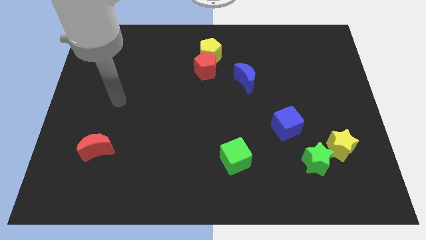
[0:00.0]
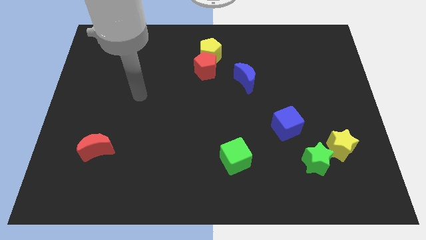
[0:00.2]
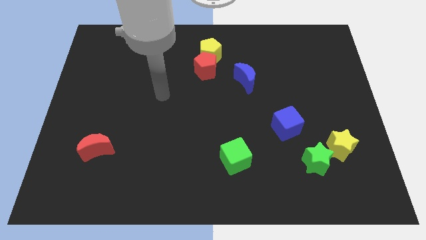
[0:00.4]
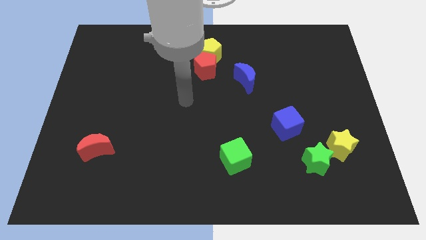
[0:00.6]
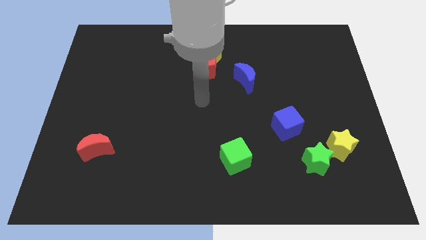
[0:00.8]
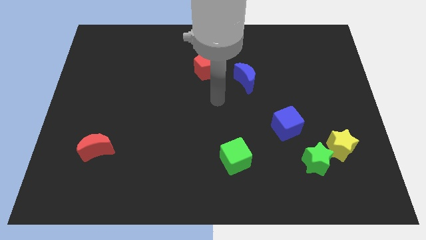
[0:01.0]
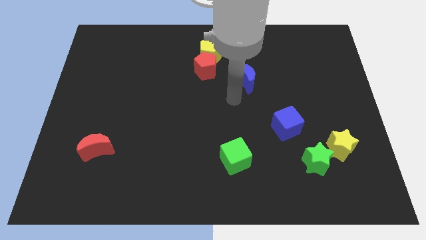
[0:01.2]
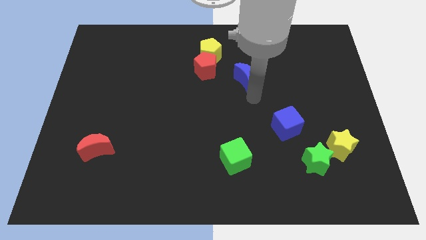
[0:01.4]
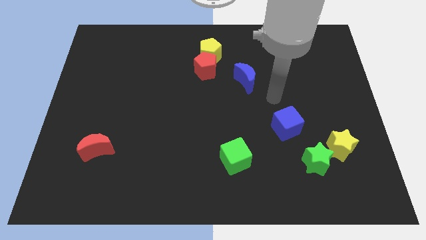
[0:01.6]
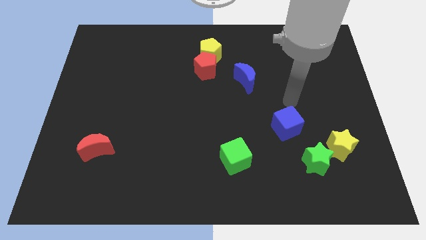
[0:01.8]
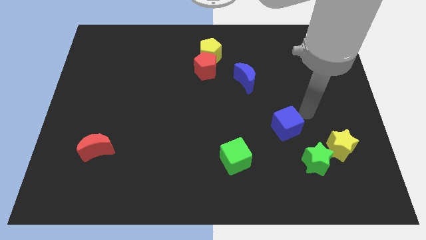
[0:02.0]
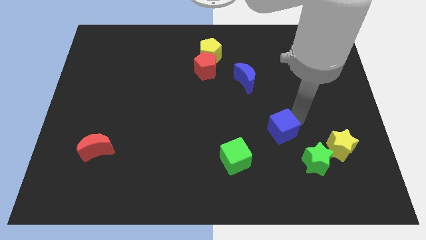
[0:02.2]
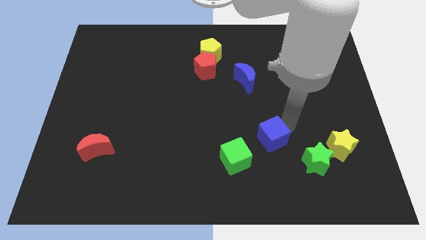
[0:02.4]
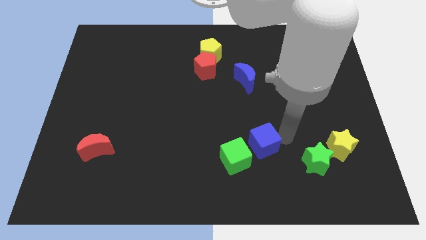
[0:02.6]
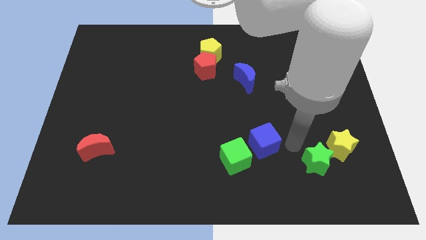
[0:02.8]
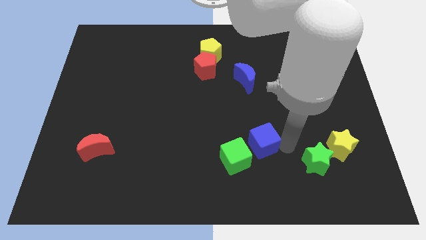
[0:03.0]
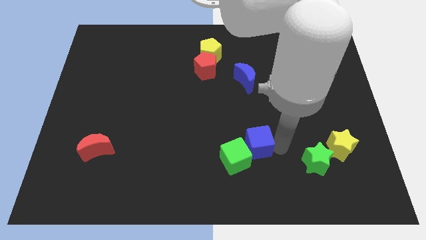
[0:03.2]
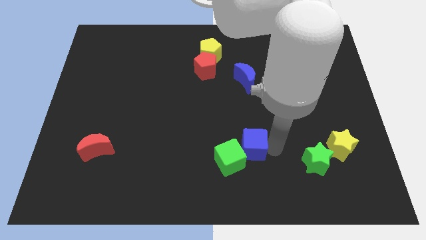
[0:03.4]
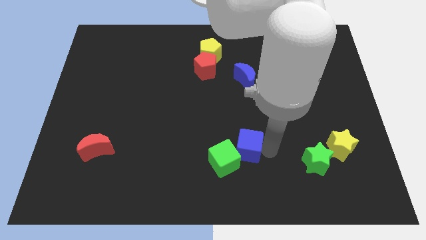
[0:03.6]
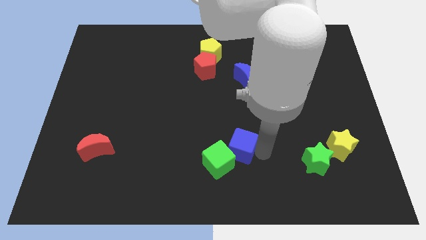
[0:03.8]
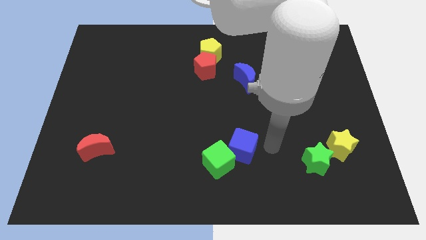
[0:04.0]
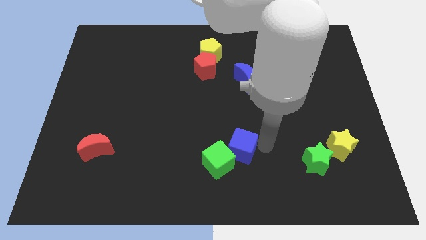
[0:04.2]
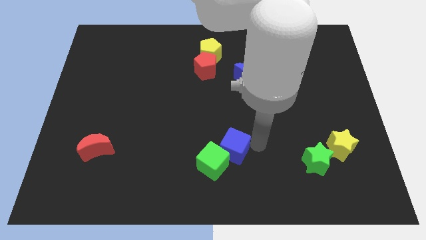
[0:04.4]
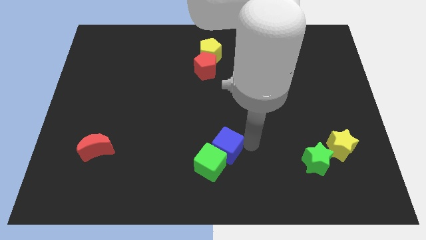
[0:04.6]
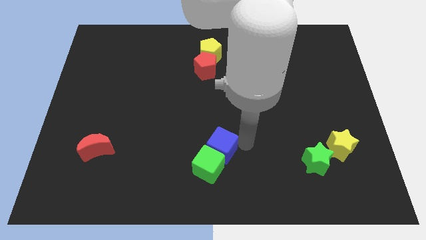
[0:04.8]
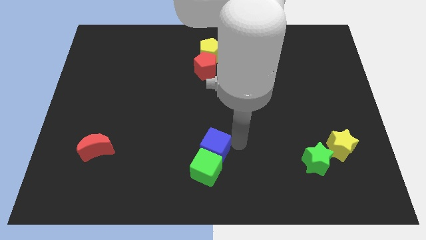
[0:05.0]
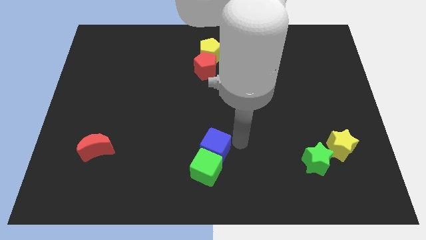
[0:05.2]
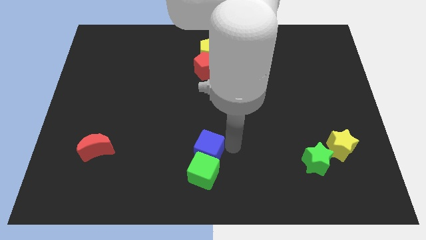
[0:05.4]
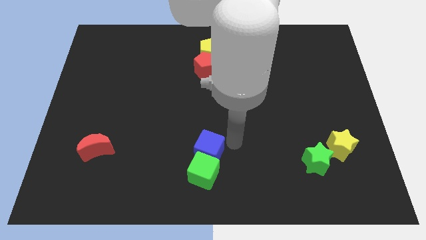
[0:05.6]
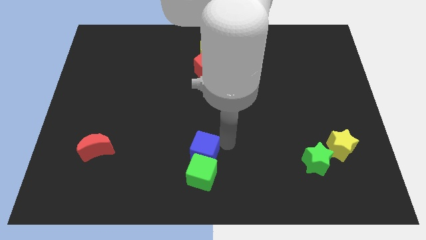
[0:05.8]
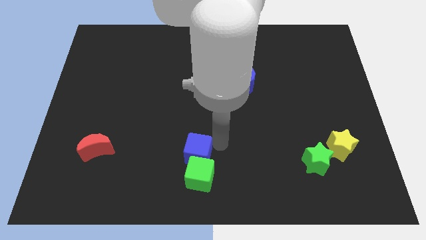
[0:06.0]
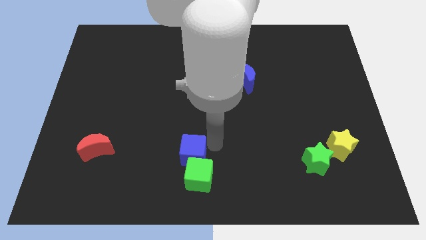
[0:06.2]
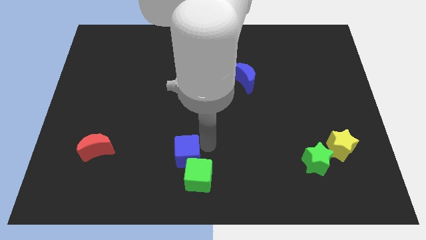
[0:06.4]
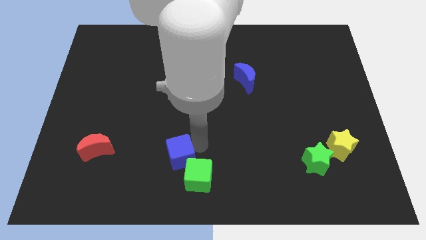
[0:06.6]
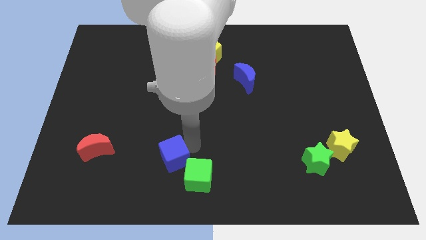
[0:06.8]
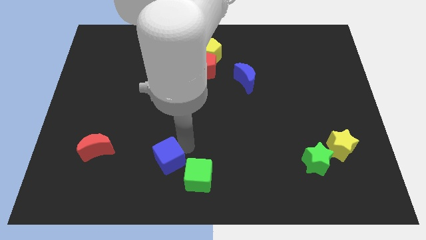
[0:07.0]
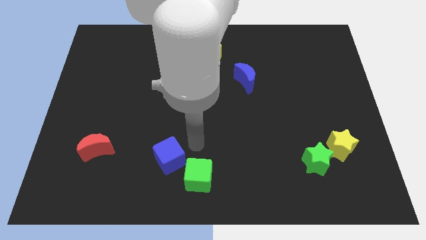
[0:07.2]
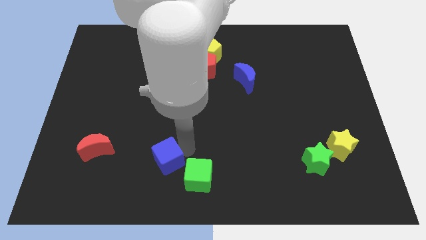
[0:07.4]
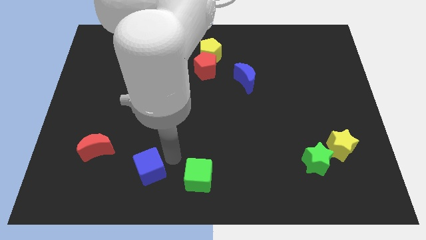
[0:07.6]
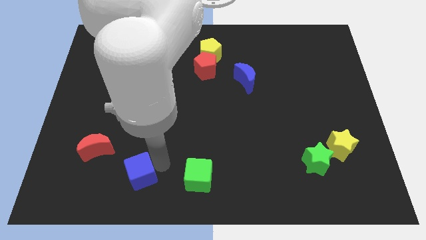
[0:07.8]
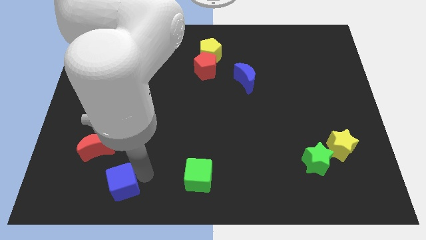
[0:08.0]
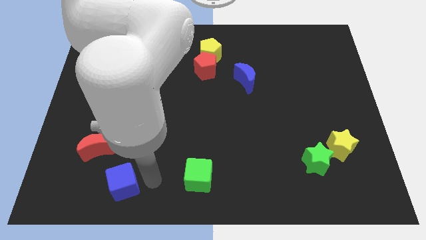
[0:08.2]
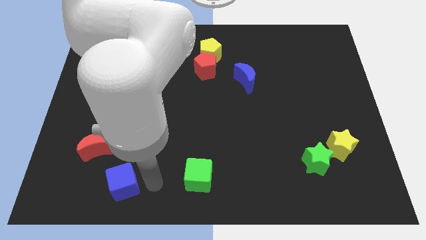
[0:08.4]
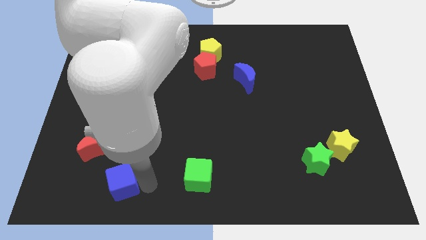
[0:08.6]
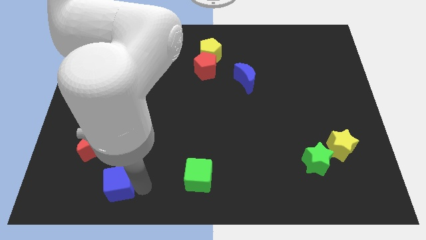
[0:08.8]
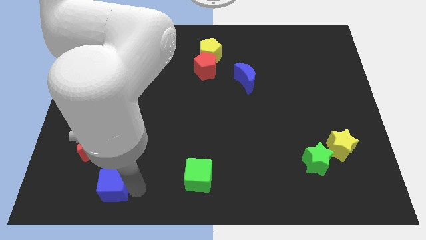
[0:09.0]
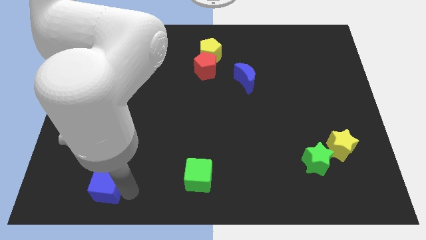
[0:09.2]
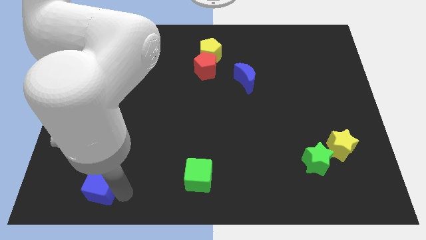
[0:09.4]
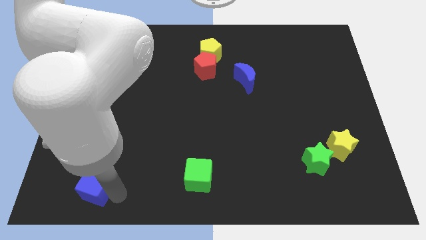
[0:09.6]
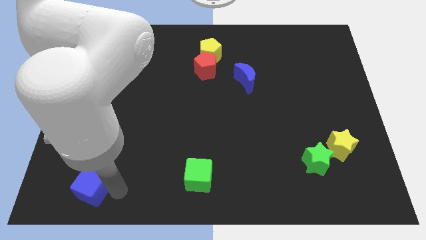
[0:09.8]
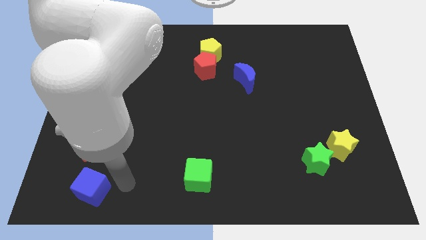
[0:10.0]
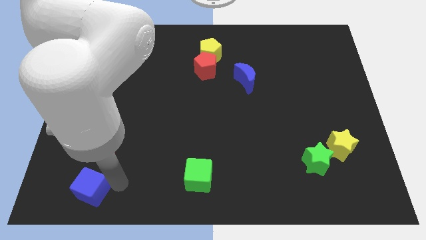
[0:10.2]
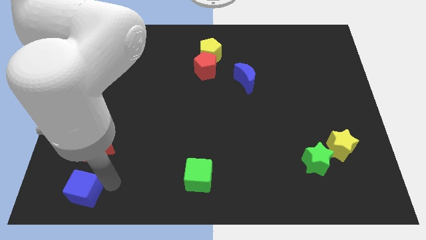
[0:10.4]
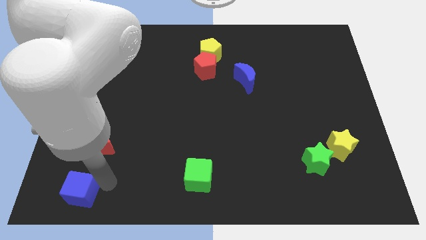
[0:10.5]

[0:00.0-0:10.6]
push the blue cube to the bottom left

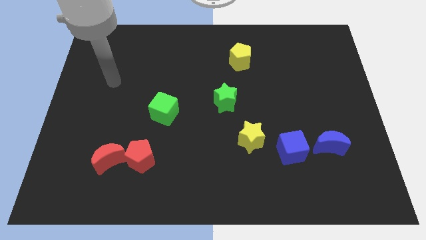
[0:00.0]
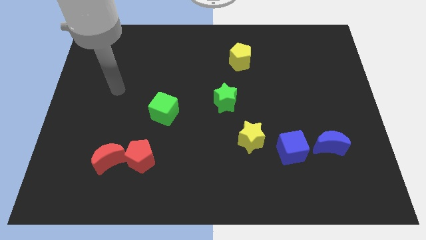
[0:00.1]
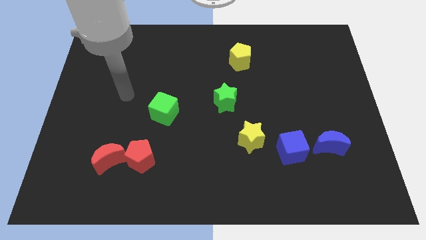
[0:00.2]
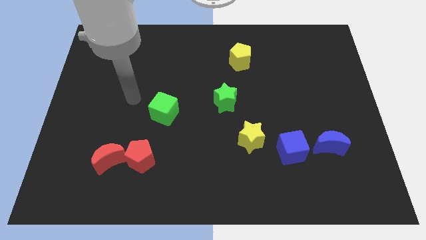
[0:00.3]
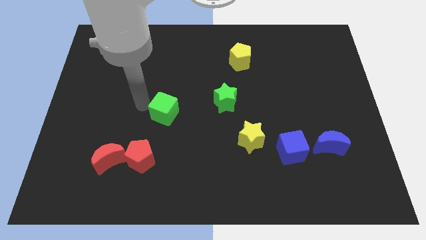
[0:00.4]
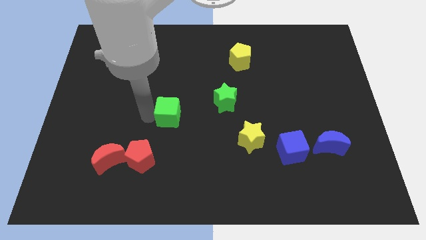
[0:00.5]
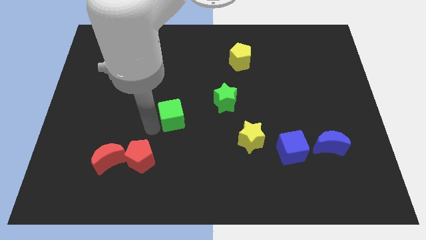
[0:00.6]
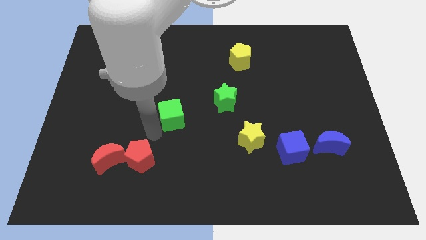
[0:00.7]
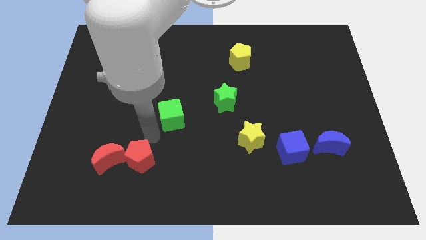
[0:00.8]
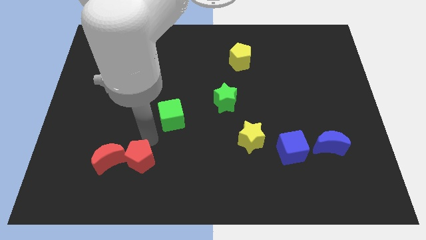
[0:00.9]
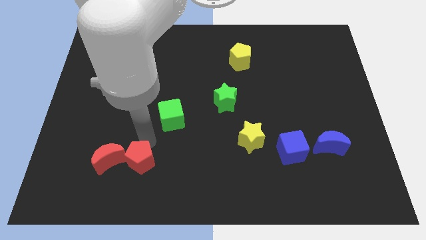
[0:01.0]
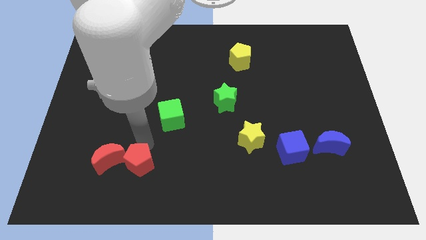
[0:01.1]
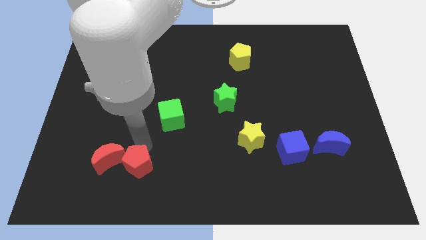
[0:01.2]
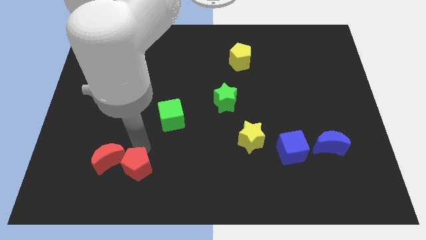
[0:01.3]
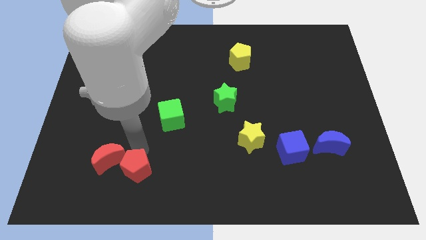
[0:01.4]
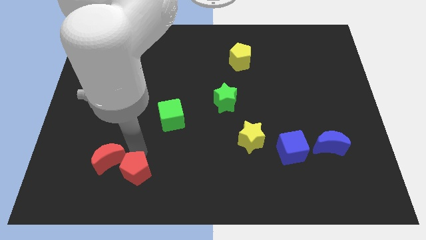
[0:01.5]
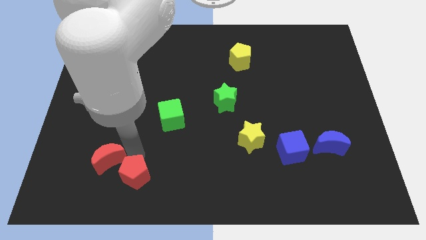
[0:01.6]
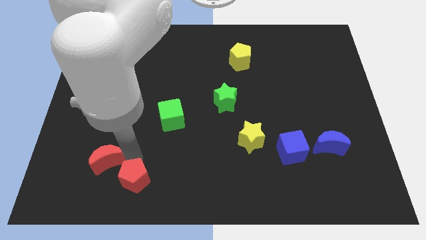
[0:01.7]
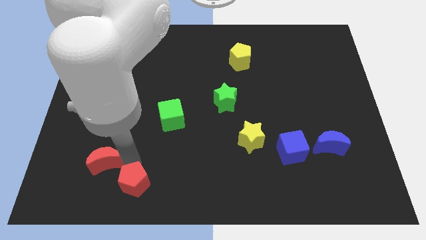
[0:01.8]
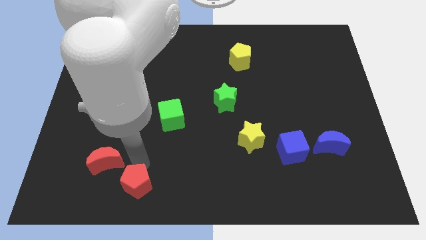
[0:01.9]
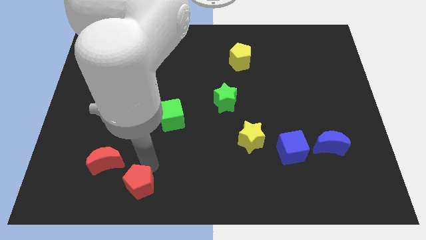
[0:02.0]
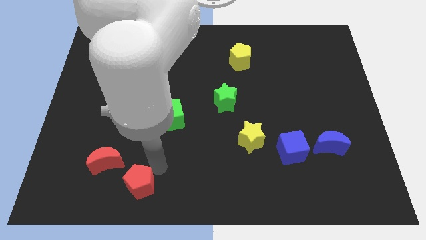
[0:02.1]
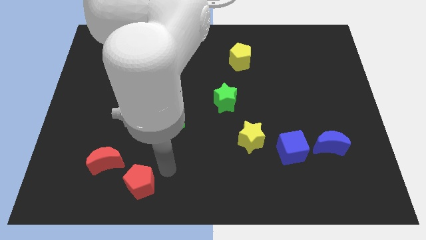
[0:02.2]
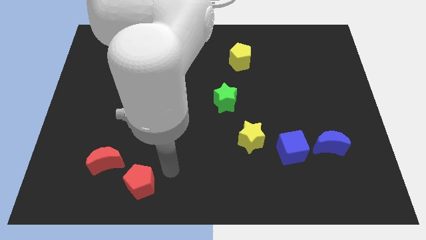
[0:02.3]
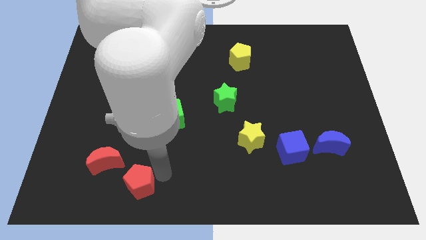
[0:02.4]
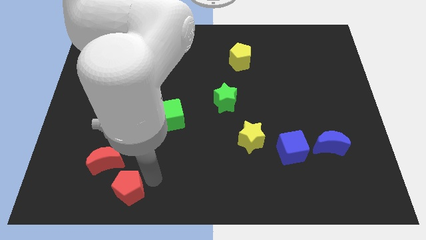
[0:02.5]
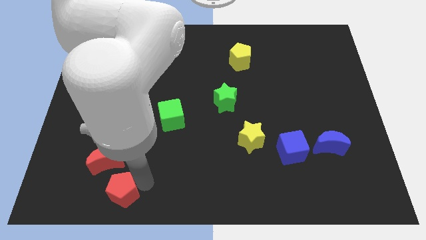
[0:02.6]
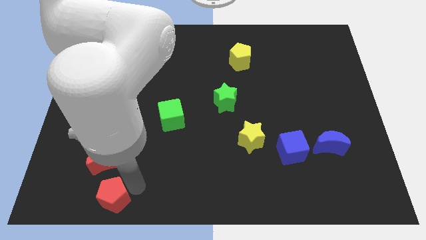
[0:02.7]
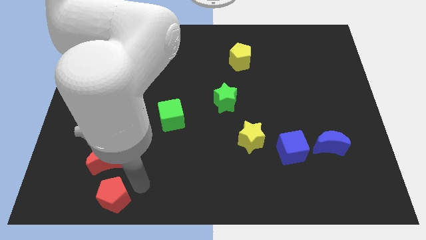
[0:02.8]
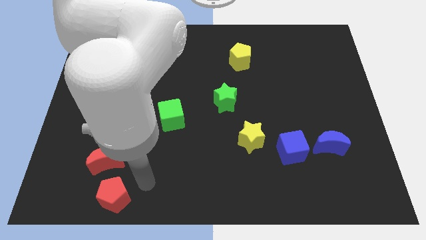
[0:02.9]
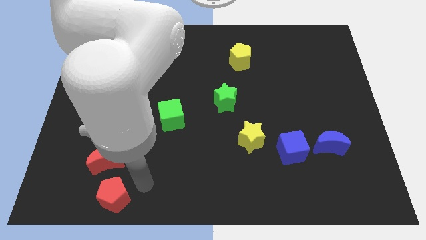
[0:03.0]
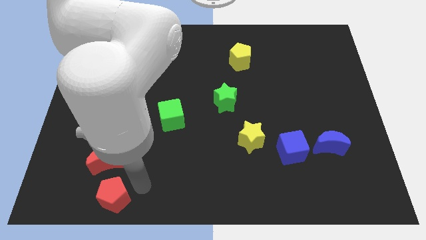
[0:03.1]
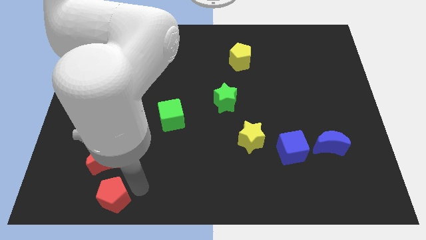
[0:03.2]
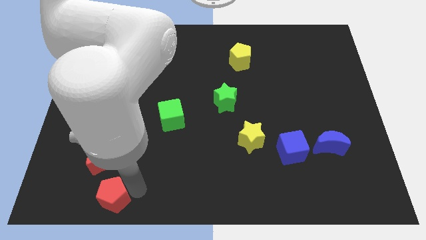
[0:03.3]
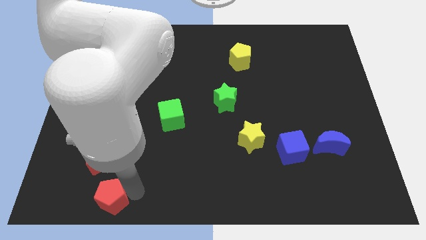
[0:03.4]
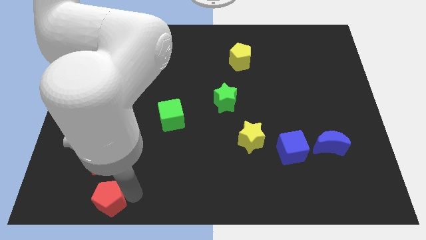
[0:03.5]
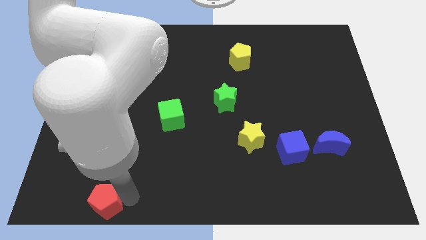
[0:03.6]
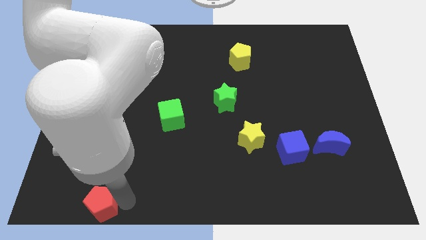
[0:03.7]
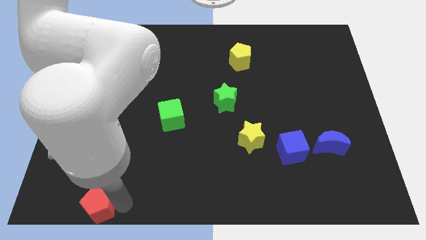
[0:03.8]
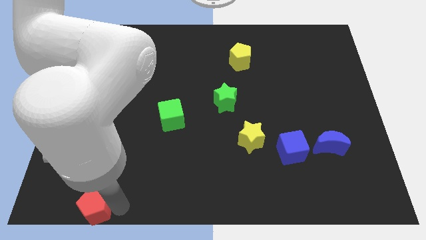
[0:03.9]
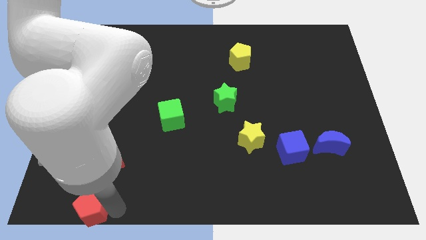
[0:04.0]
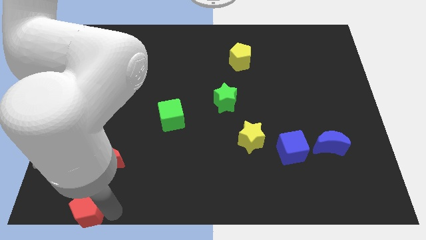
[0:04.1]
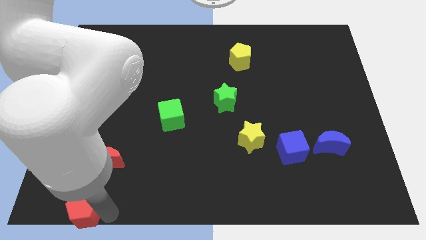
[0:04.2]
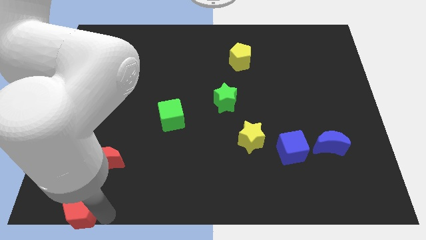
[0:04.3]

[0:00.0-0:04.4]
push the red pentagon to the bottom left corner
